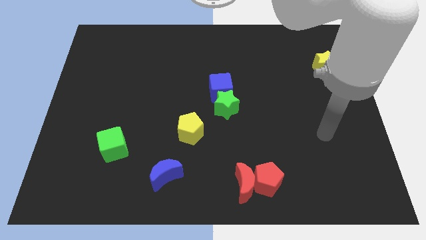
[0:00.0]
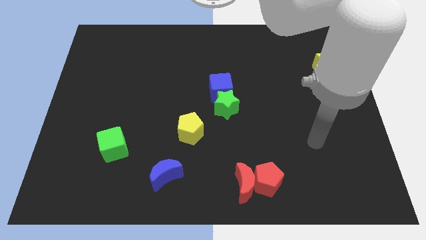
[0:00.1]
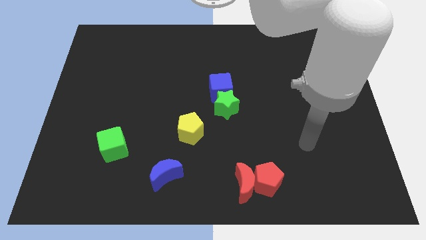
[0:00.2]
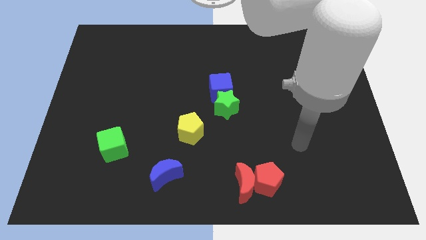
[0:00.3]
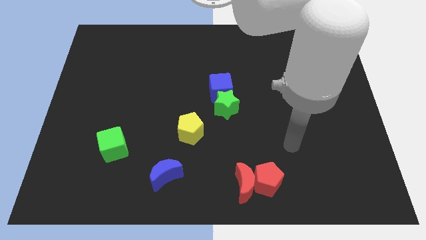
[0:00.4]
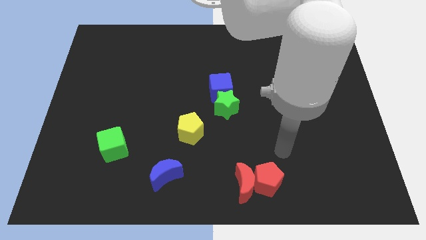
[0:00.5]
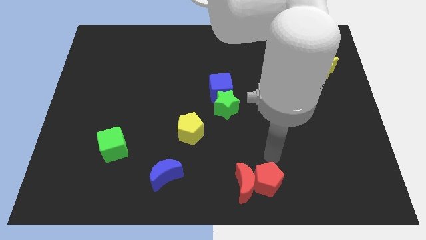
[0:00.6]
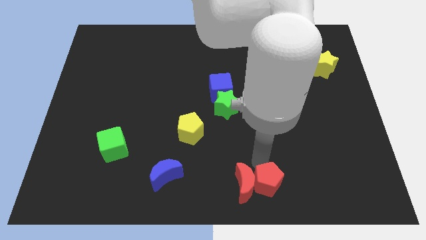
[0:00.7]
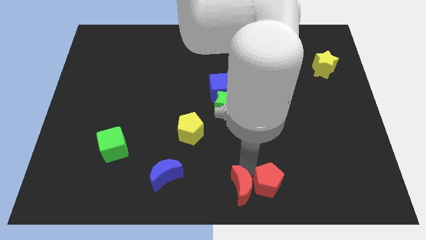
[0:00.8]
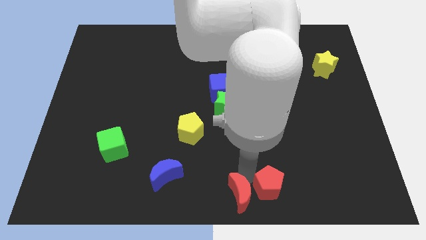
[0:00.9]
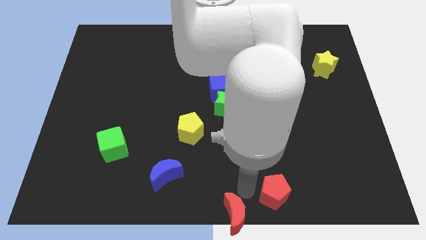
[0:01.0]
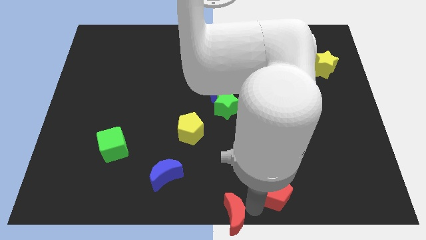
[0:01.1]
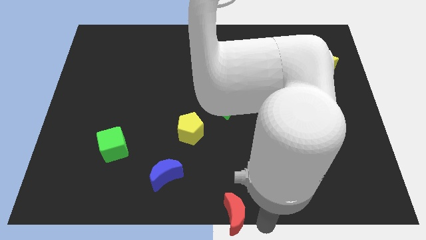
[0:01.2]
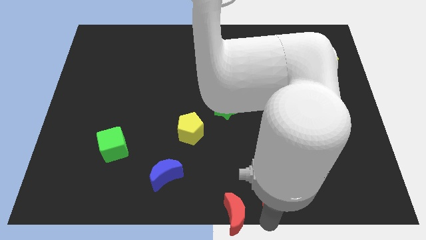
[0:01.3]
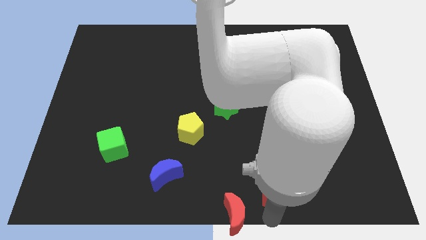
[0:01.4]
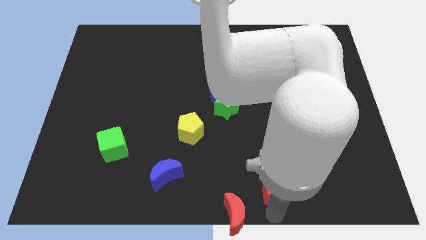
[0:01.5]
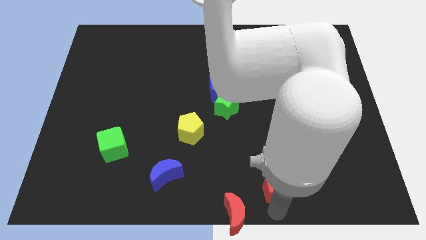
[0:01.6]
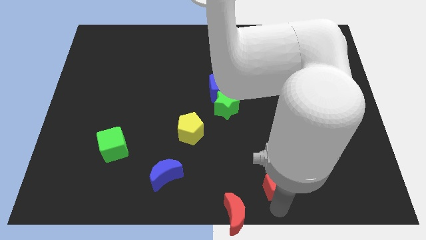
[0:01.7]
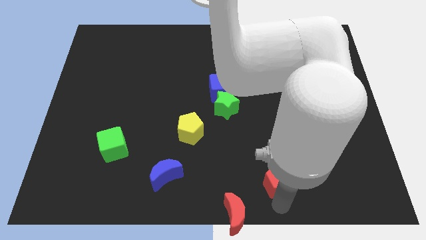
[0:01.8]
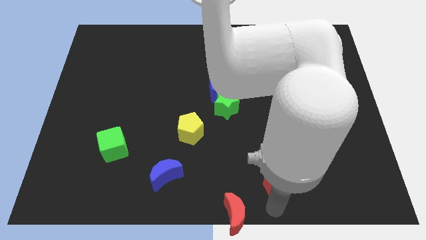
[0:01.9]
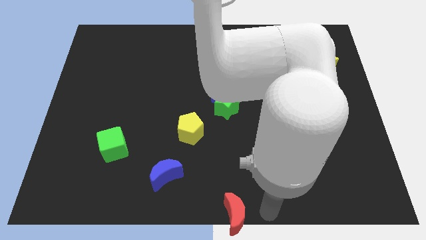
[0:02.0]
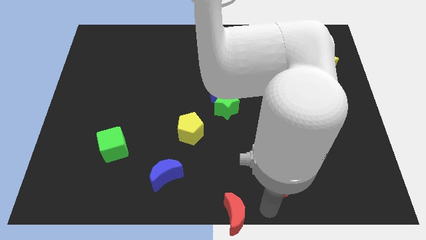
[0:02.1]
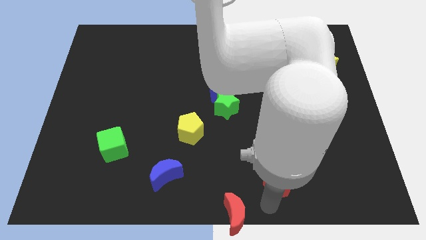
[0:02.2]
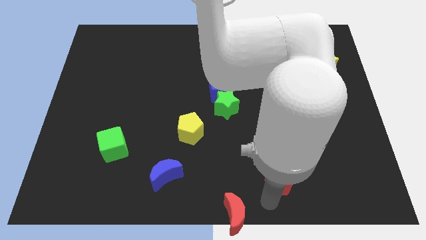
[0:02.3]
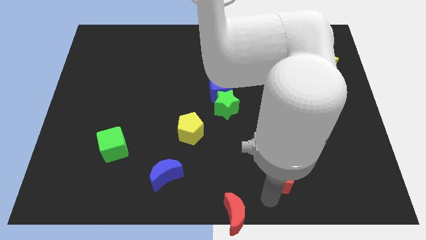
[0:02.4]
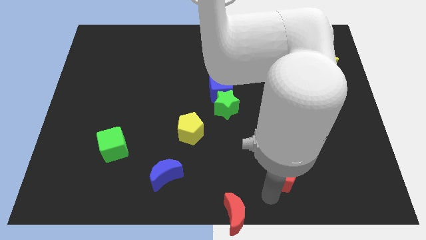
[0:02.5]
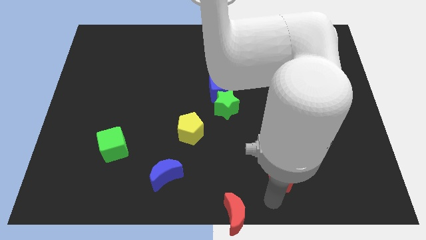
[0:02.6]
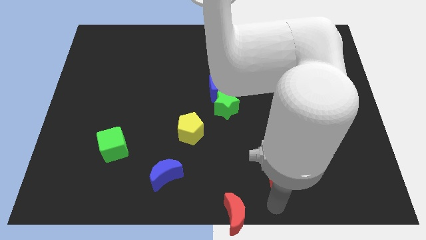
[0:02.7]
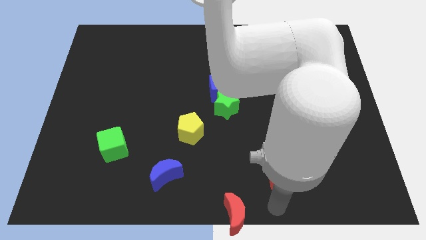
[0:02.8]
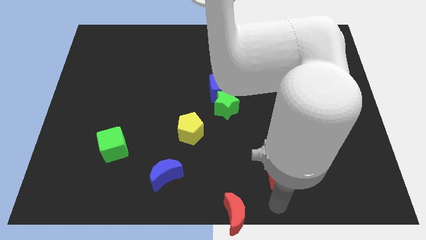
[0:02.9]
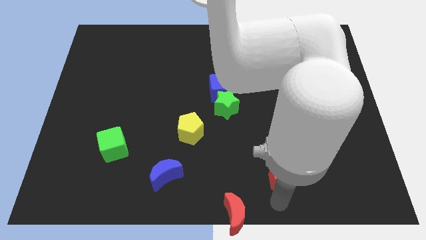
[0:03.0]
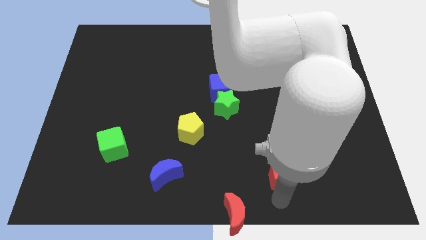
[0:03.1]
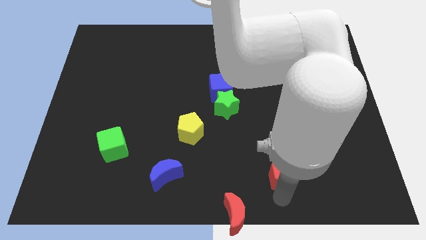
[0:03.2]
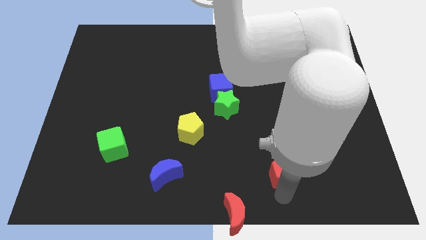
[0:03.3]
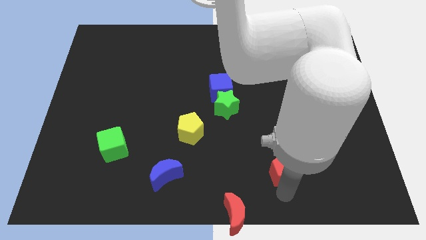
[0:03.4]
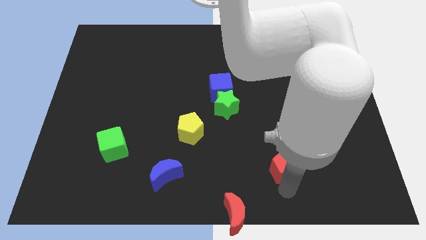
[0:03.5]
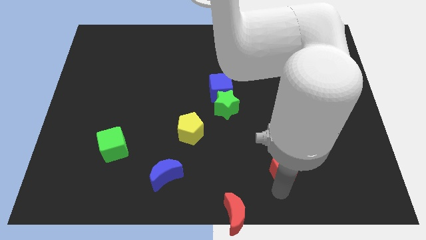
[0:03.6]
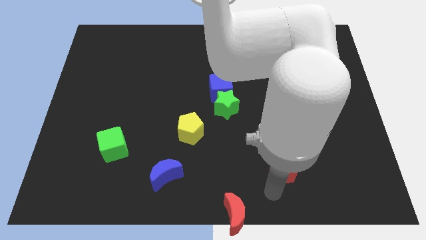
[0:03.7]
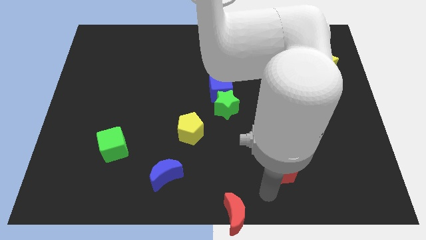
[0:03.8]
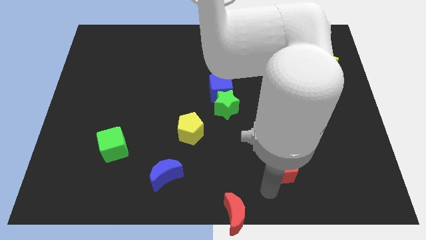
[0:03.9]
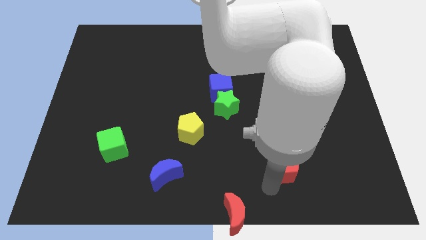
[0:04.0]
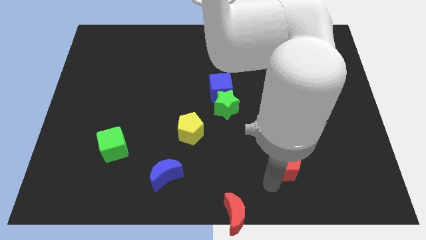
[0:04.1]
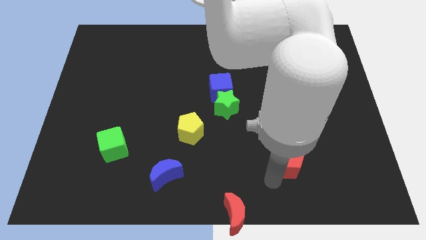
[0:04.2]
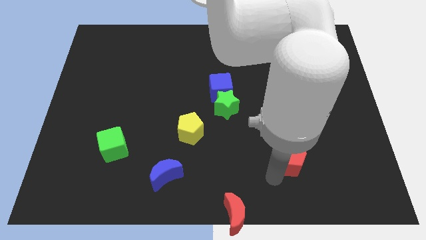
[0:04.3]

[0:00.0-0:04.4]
slightly push the red pentagon up and to the right diagonally

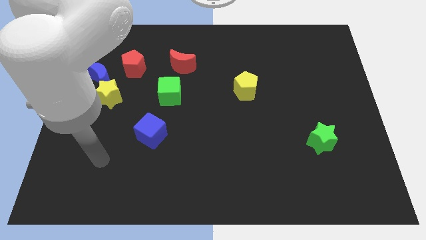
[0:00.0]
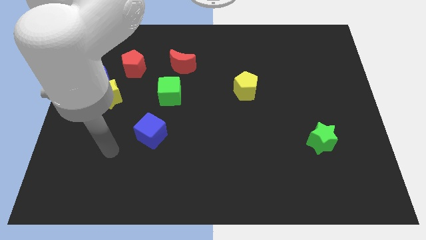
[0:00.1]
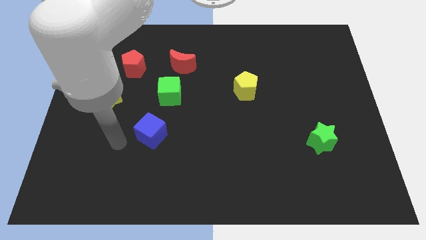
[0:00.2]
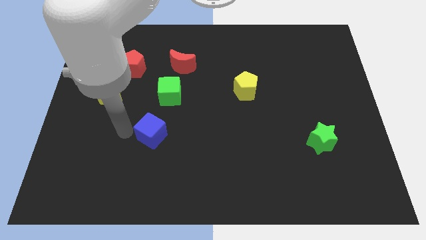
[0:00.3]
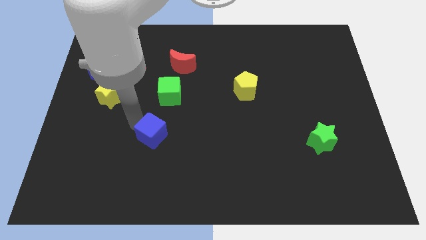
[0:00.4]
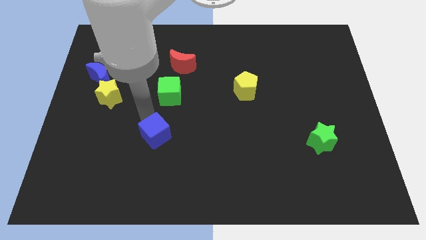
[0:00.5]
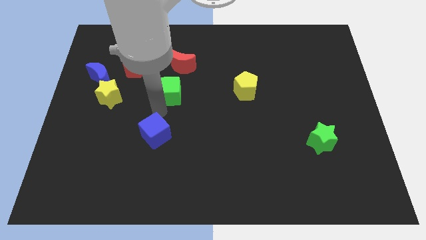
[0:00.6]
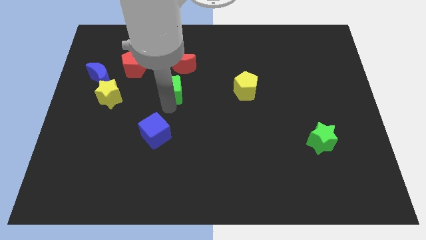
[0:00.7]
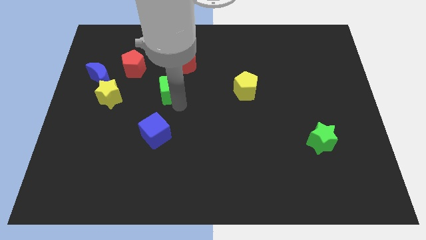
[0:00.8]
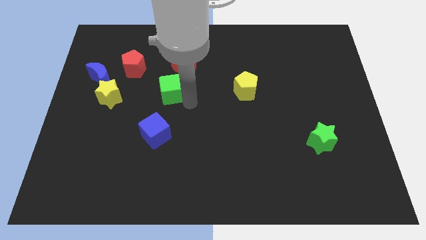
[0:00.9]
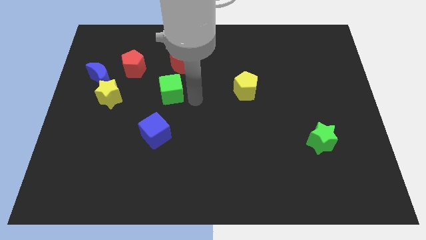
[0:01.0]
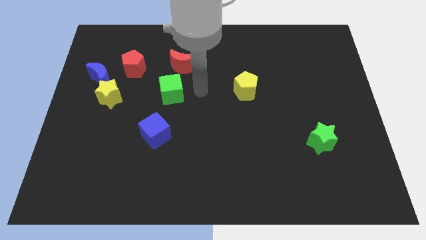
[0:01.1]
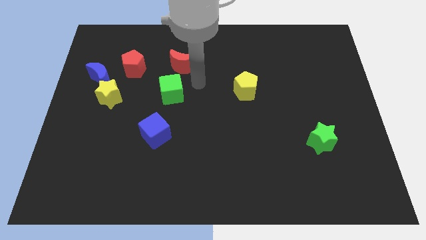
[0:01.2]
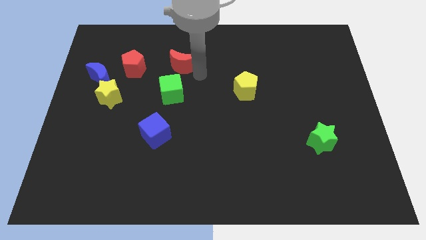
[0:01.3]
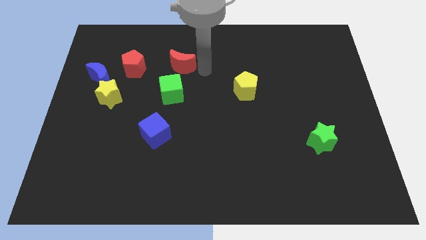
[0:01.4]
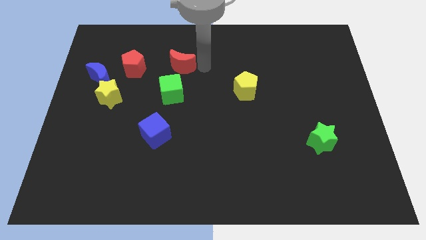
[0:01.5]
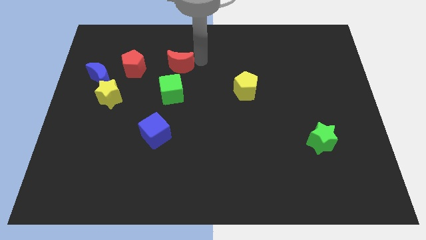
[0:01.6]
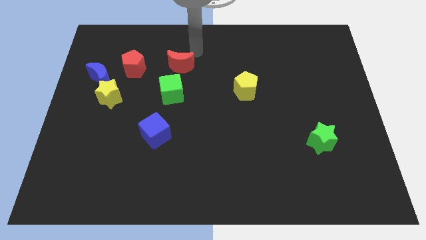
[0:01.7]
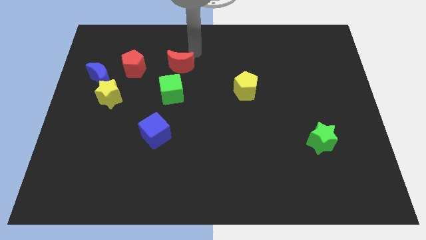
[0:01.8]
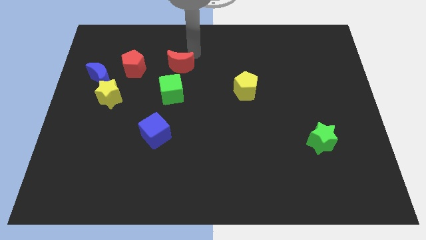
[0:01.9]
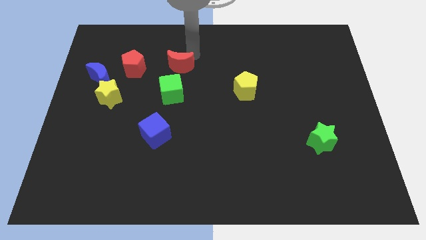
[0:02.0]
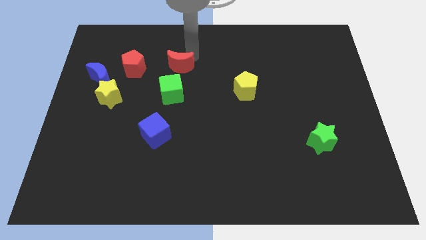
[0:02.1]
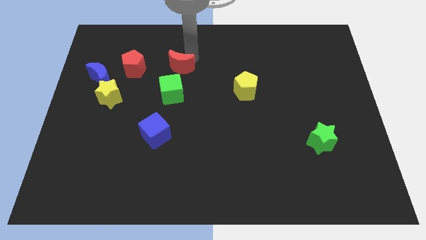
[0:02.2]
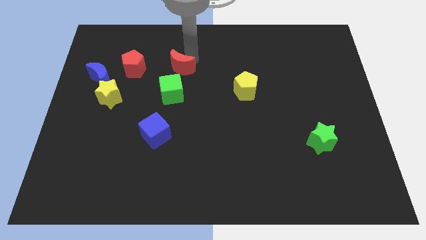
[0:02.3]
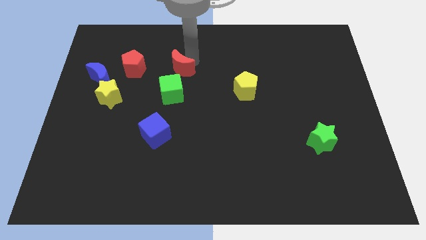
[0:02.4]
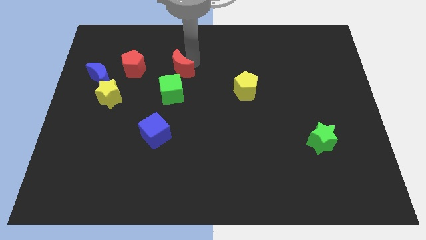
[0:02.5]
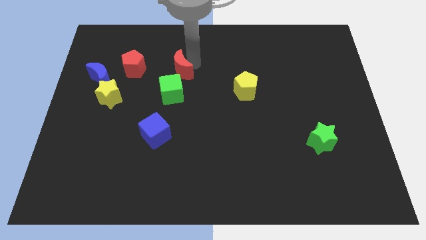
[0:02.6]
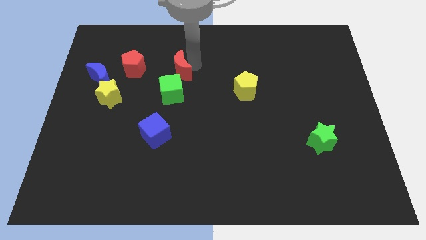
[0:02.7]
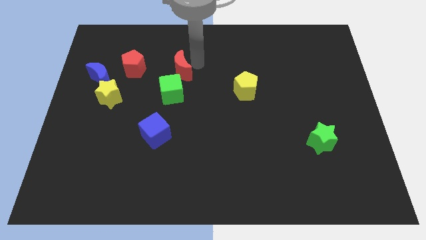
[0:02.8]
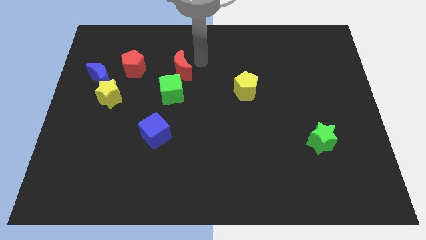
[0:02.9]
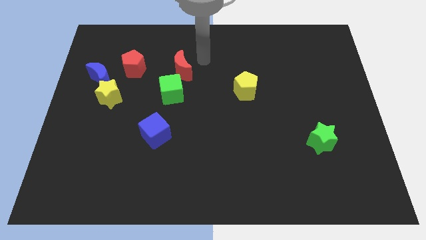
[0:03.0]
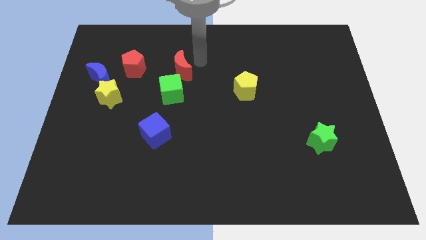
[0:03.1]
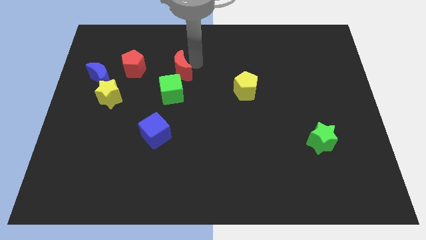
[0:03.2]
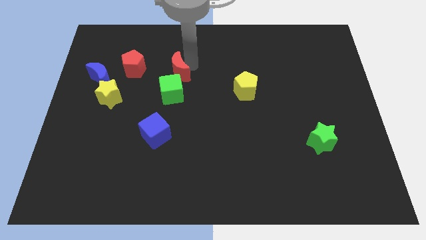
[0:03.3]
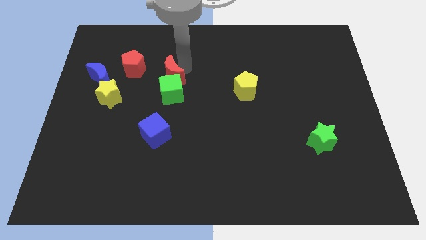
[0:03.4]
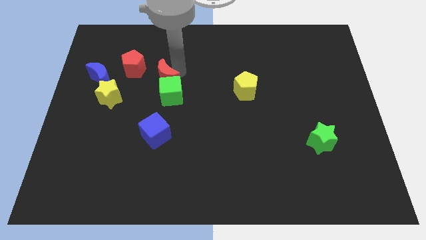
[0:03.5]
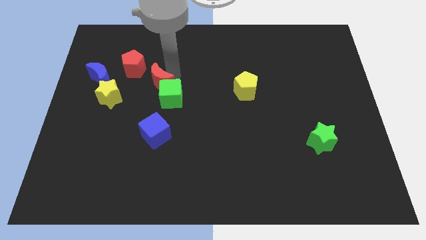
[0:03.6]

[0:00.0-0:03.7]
slightly slide the red moon downwards and left
